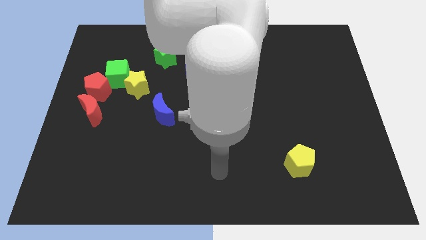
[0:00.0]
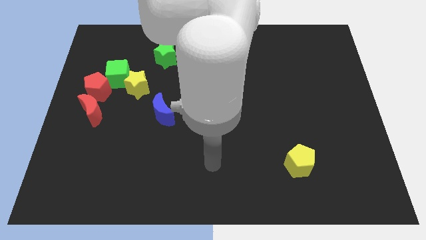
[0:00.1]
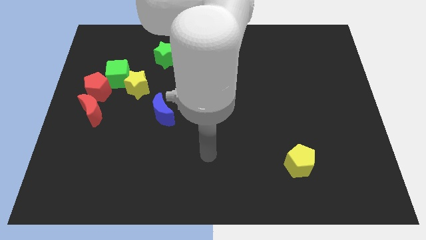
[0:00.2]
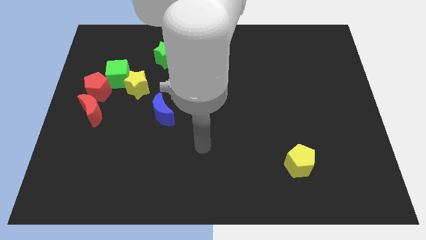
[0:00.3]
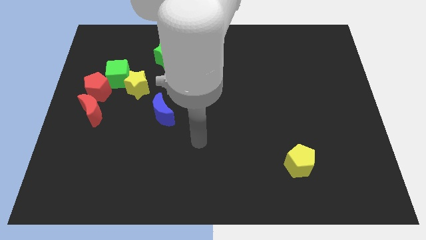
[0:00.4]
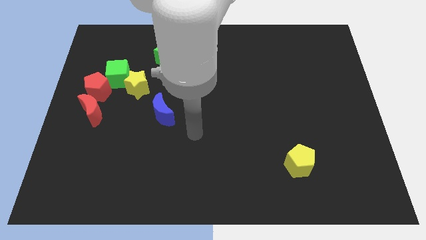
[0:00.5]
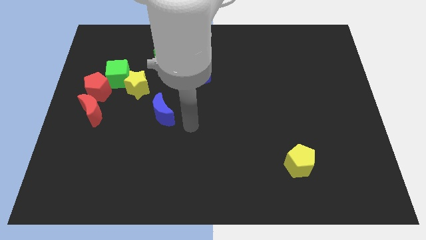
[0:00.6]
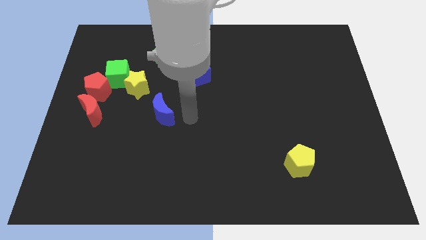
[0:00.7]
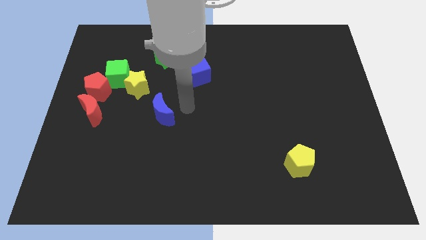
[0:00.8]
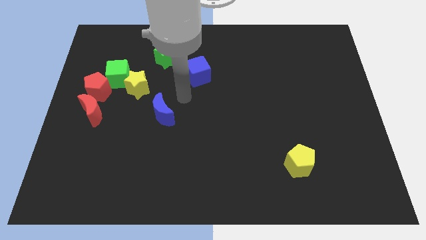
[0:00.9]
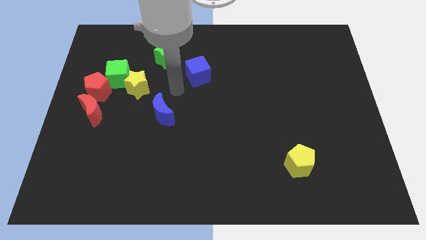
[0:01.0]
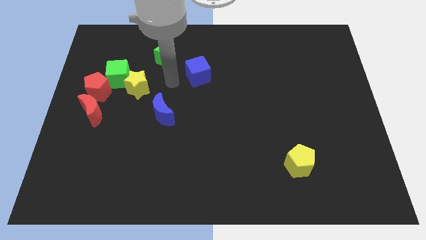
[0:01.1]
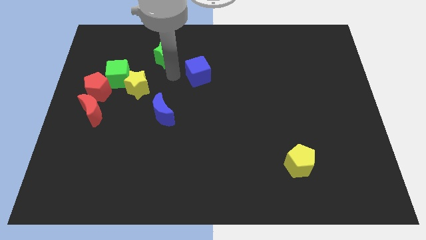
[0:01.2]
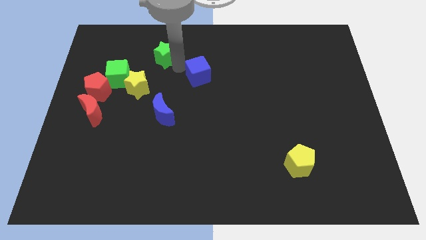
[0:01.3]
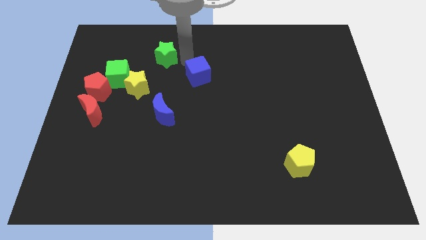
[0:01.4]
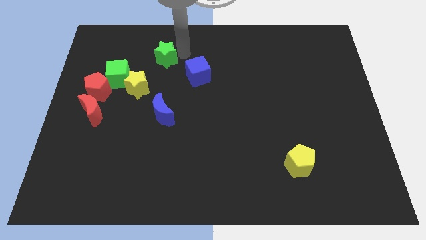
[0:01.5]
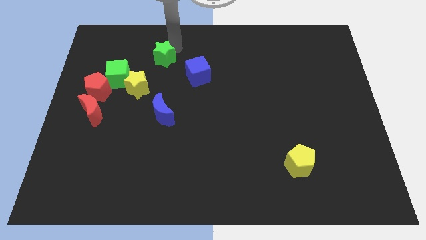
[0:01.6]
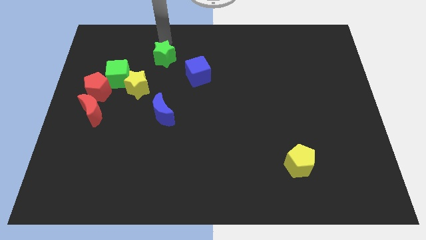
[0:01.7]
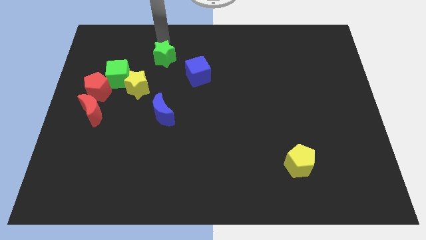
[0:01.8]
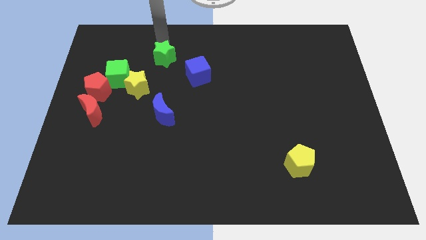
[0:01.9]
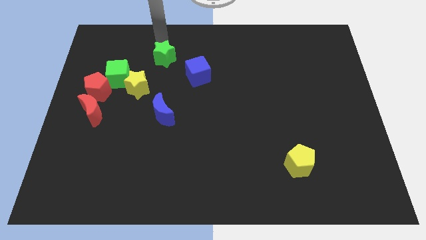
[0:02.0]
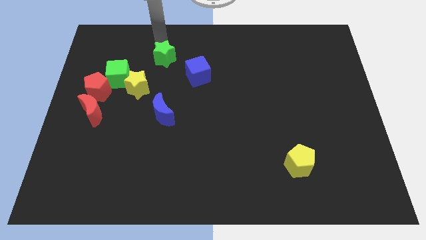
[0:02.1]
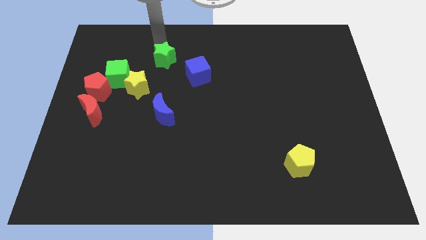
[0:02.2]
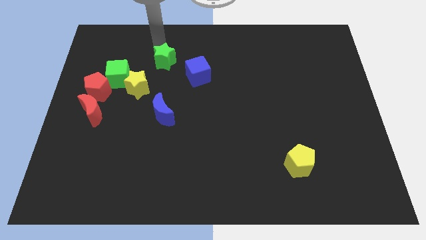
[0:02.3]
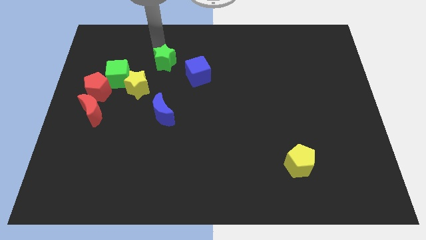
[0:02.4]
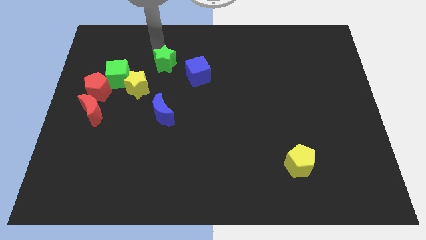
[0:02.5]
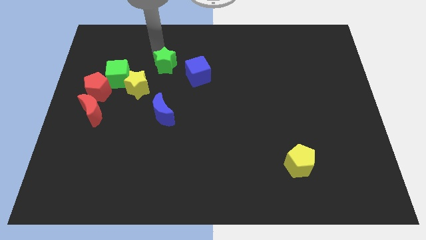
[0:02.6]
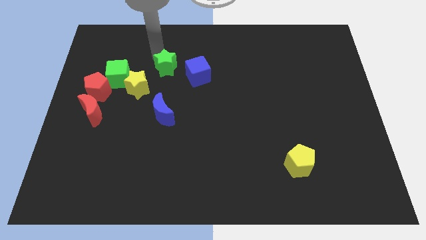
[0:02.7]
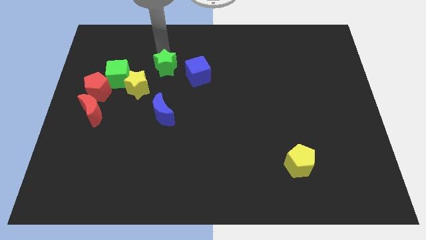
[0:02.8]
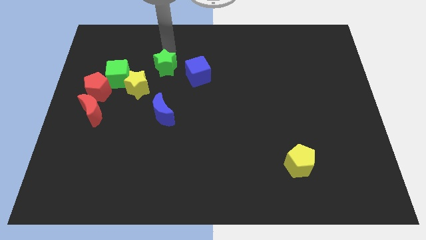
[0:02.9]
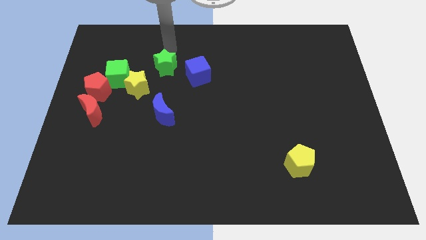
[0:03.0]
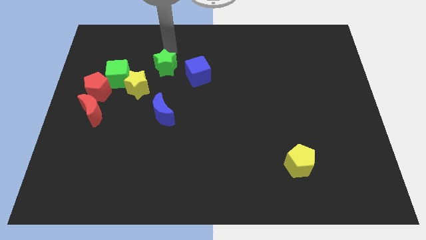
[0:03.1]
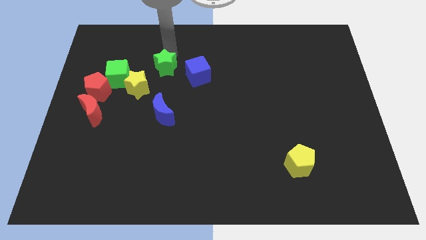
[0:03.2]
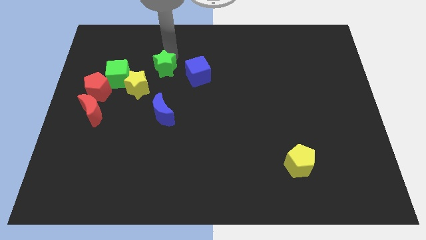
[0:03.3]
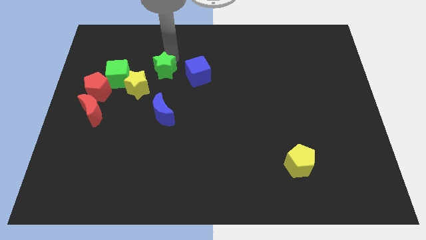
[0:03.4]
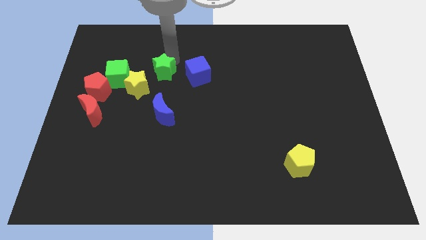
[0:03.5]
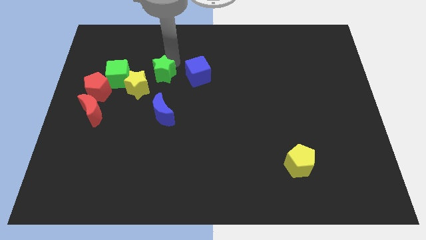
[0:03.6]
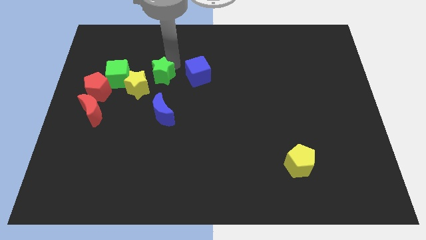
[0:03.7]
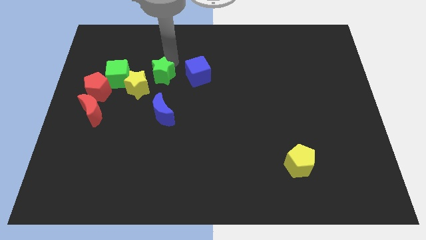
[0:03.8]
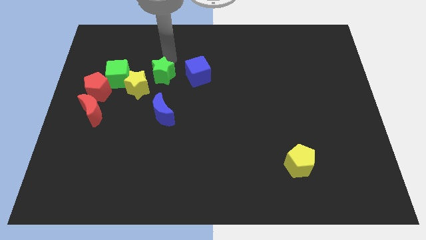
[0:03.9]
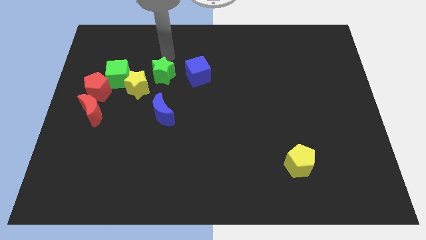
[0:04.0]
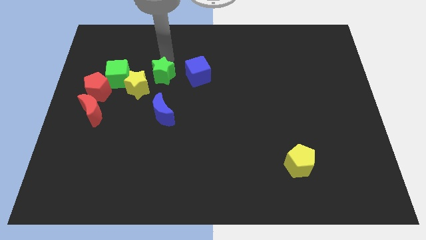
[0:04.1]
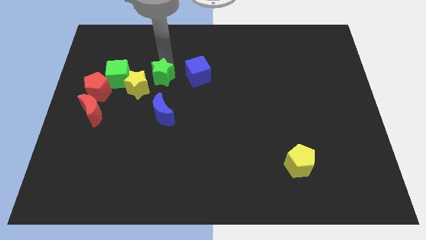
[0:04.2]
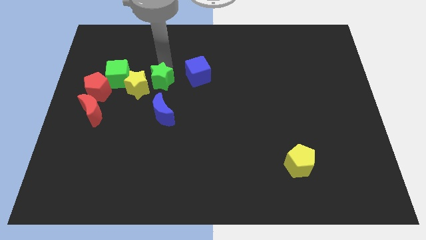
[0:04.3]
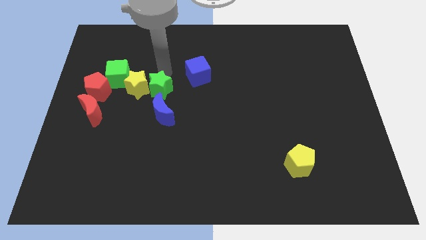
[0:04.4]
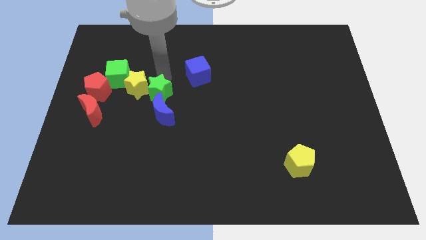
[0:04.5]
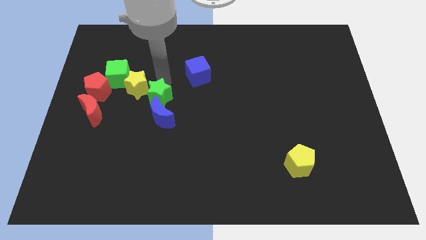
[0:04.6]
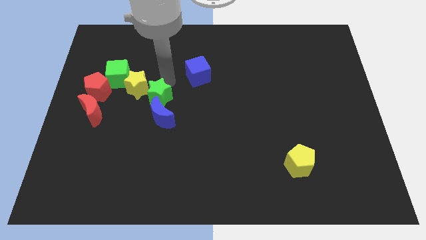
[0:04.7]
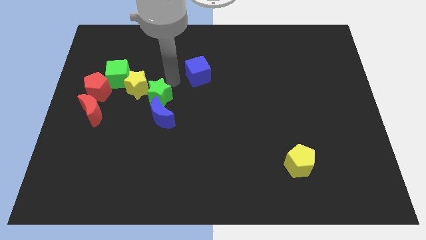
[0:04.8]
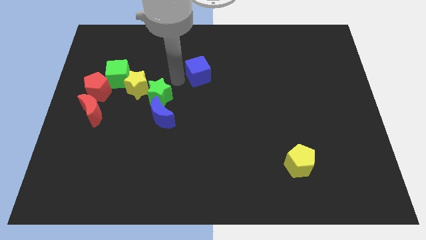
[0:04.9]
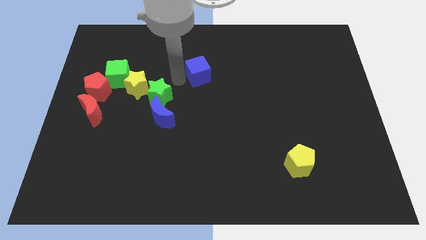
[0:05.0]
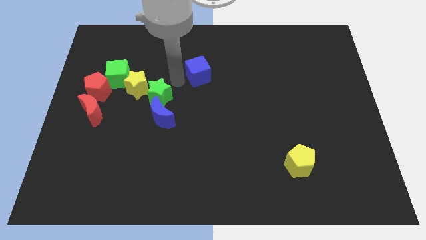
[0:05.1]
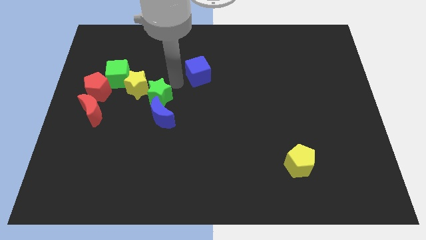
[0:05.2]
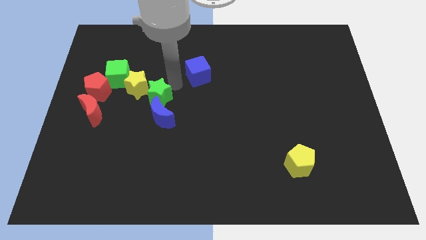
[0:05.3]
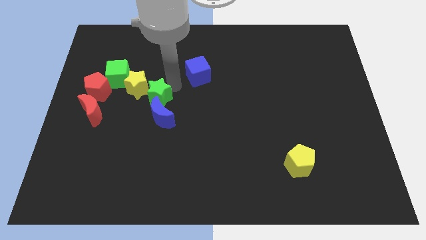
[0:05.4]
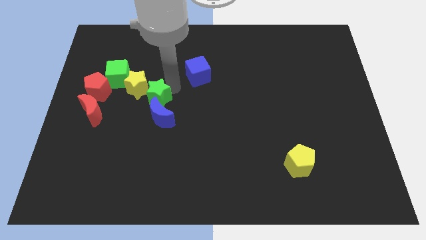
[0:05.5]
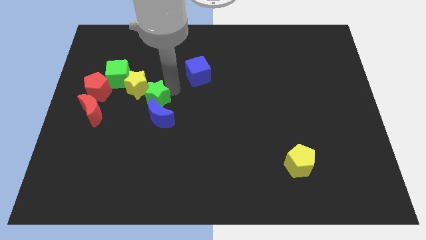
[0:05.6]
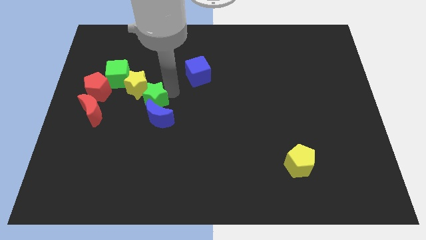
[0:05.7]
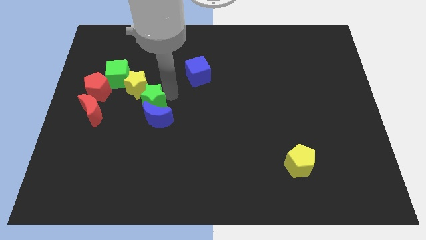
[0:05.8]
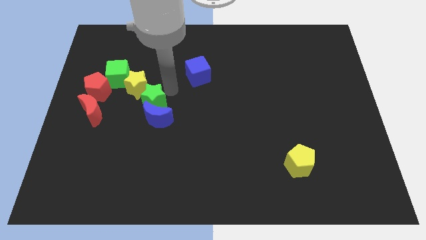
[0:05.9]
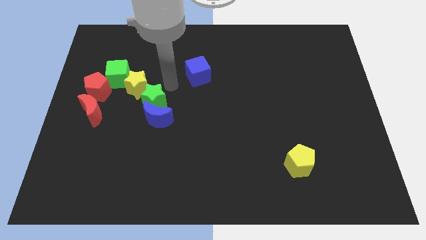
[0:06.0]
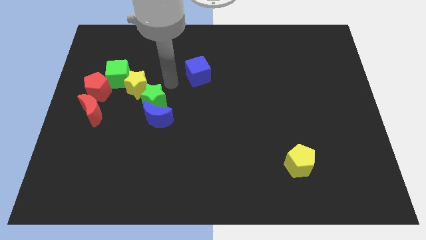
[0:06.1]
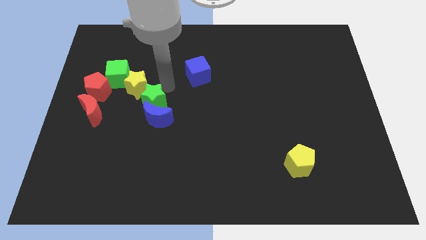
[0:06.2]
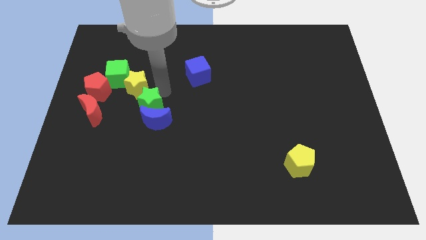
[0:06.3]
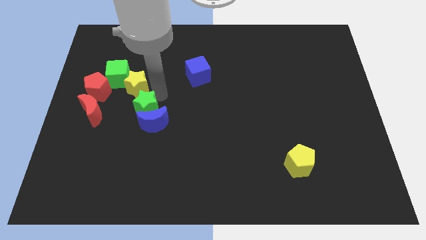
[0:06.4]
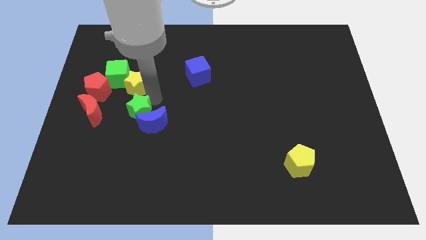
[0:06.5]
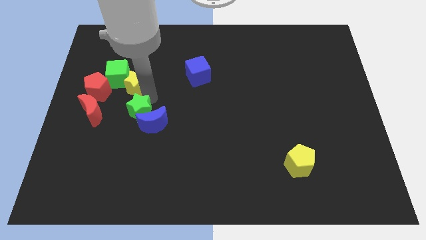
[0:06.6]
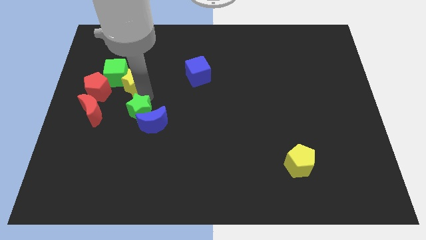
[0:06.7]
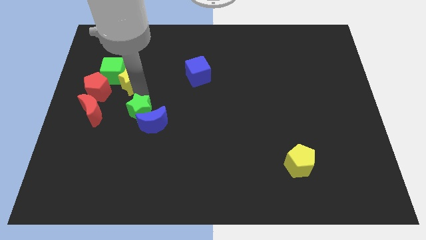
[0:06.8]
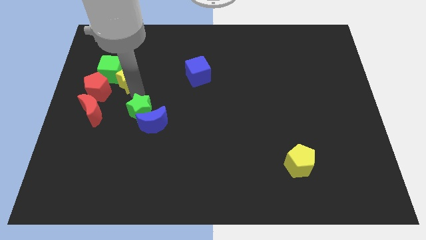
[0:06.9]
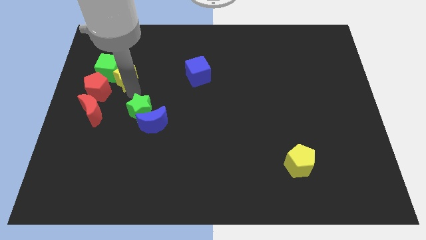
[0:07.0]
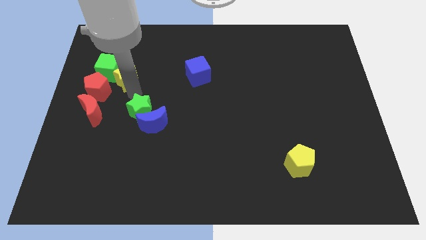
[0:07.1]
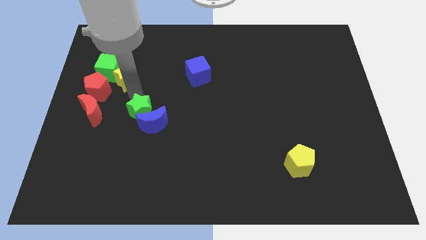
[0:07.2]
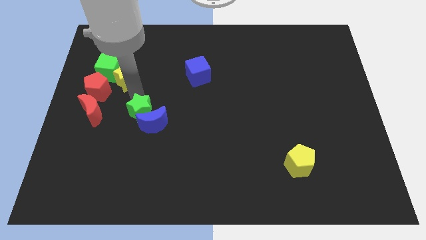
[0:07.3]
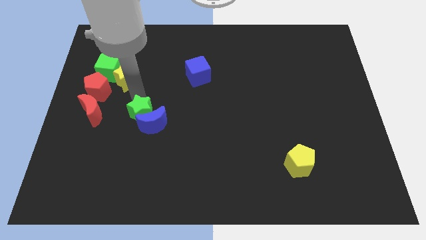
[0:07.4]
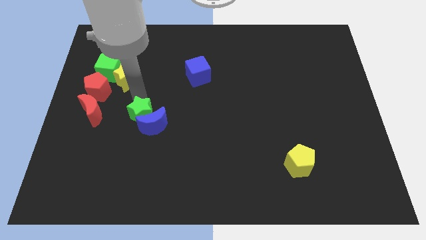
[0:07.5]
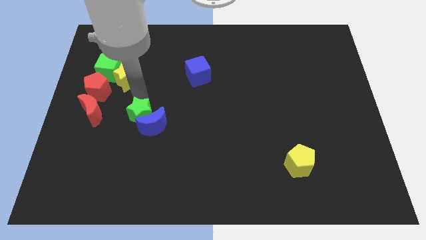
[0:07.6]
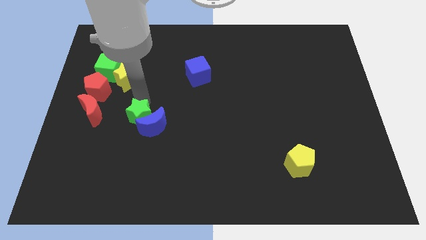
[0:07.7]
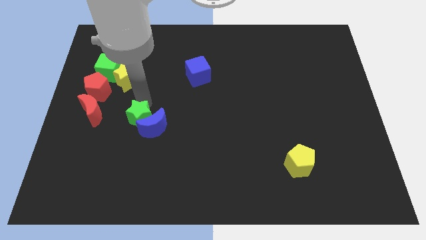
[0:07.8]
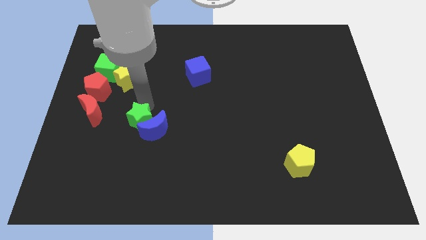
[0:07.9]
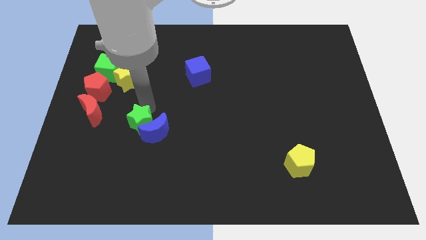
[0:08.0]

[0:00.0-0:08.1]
push the green star downwards
